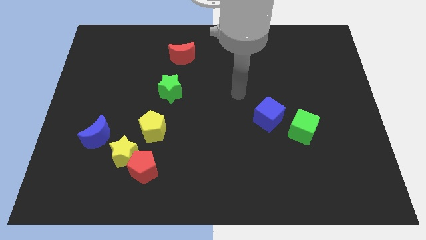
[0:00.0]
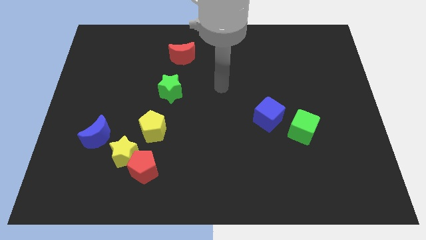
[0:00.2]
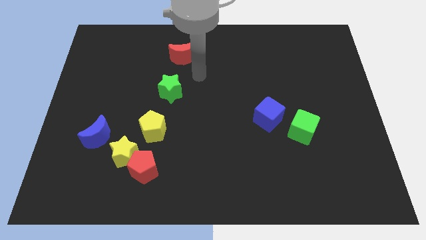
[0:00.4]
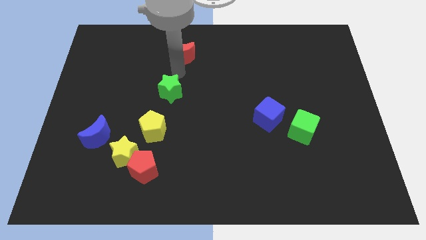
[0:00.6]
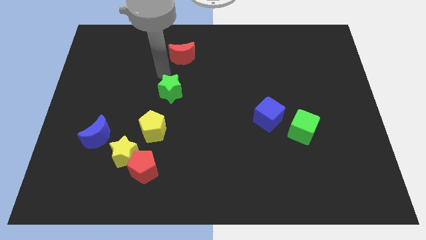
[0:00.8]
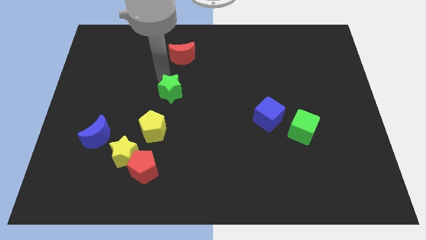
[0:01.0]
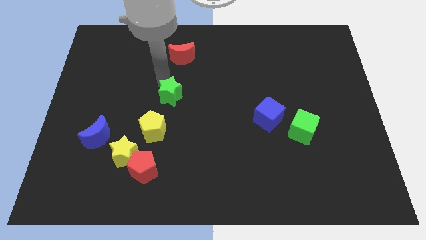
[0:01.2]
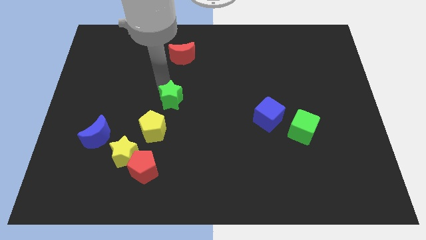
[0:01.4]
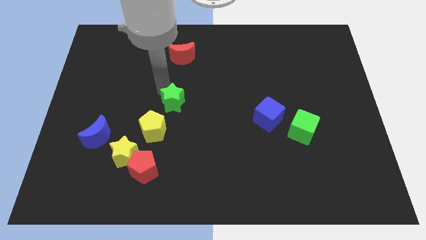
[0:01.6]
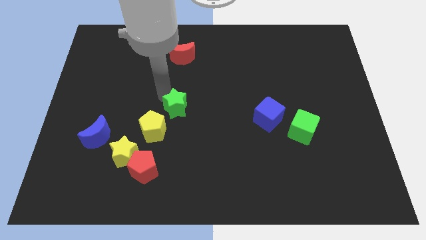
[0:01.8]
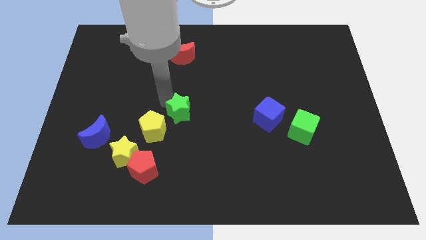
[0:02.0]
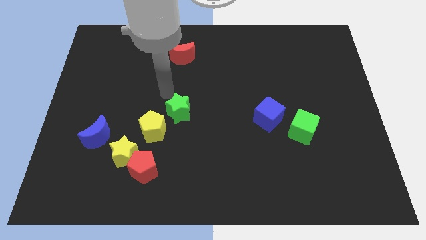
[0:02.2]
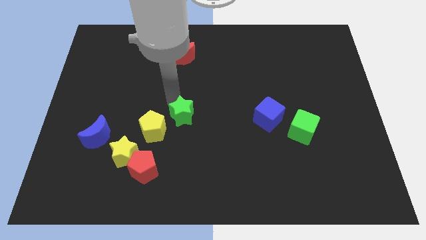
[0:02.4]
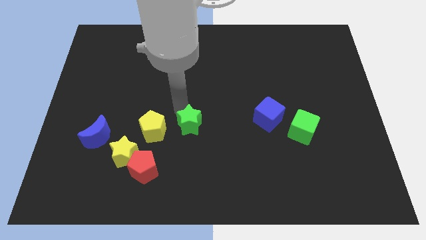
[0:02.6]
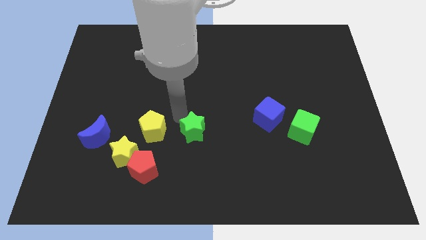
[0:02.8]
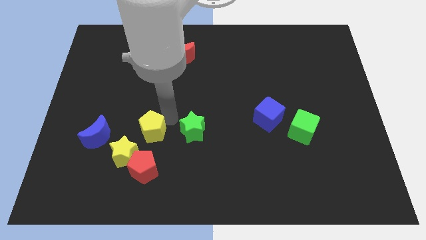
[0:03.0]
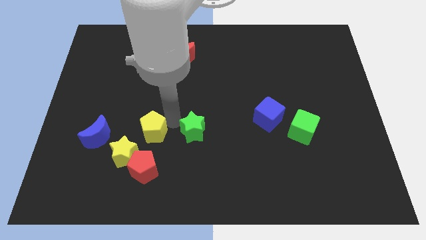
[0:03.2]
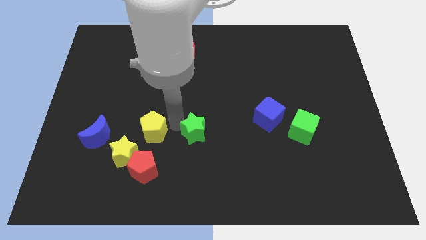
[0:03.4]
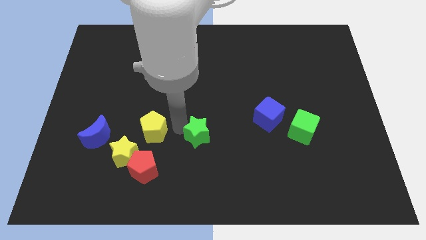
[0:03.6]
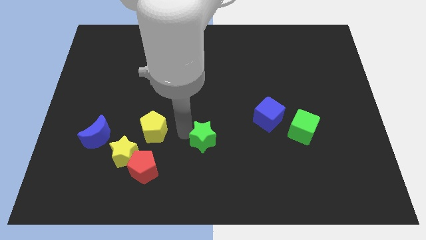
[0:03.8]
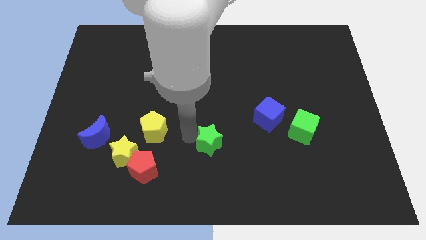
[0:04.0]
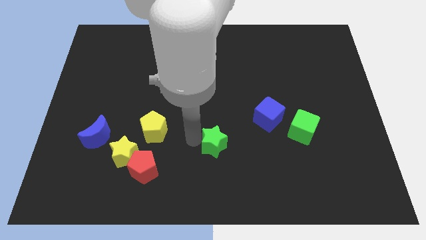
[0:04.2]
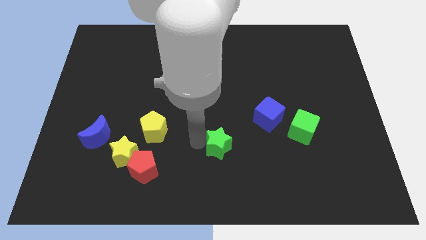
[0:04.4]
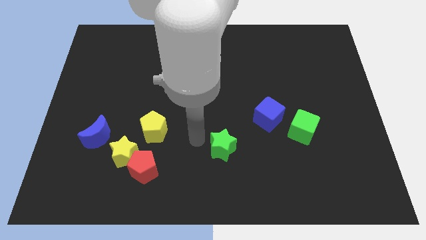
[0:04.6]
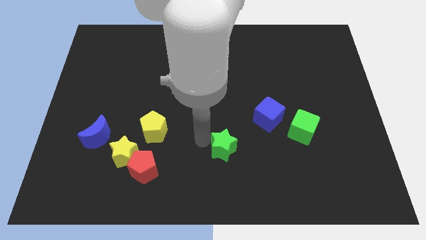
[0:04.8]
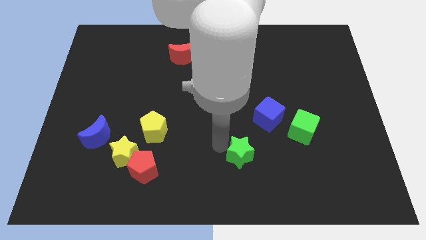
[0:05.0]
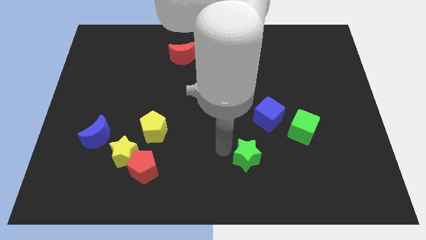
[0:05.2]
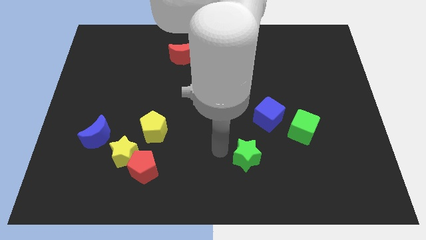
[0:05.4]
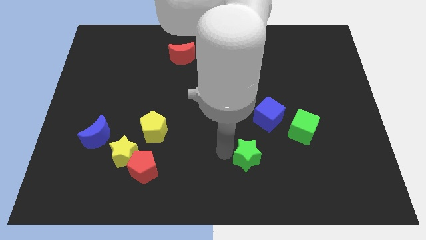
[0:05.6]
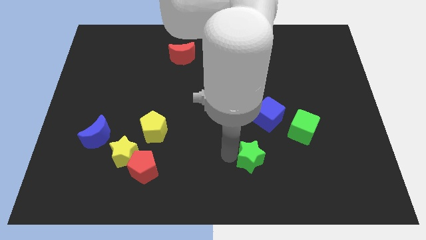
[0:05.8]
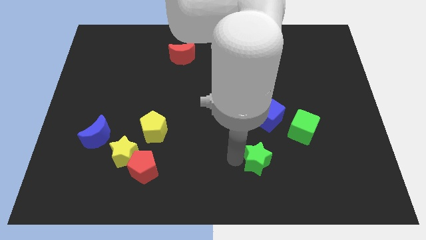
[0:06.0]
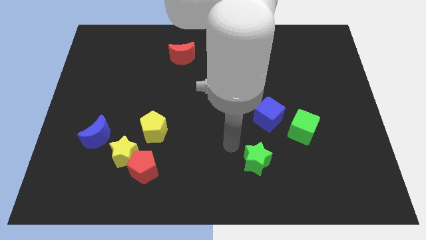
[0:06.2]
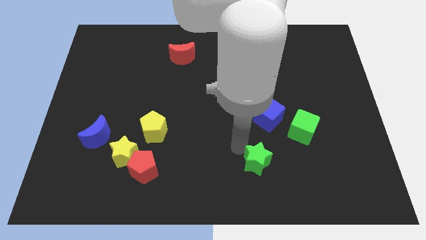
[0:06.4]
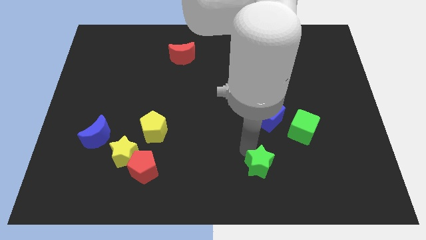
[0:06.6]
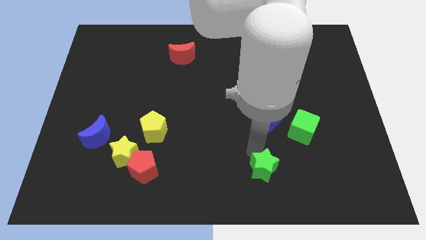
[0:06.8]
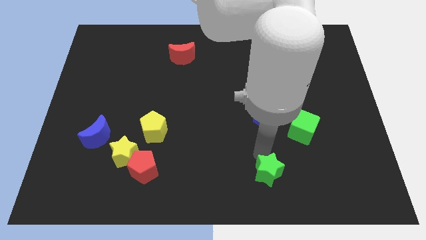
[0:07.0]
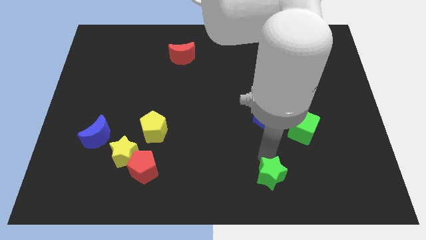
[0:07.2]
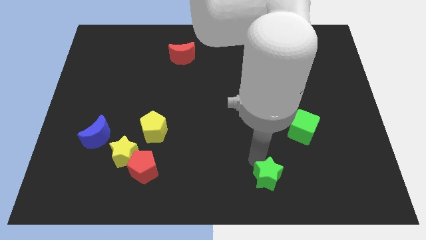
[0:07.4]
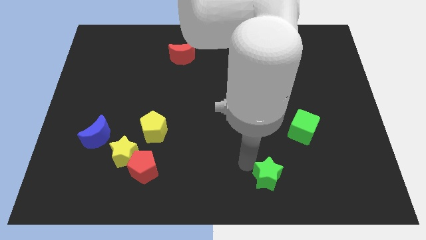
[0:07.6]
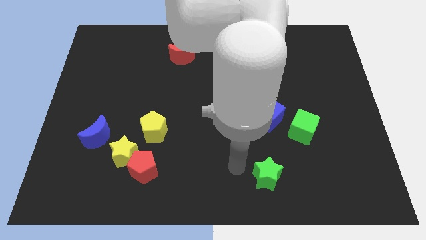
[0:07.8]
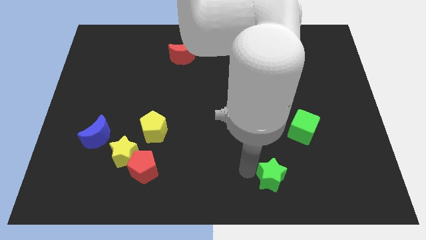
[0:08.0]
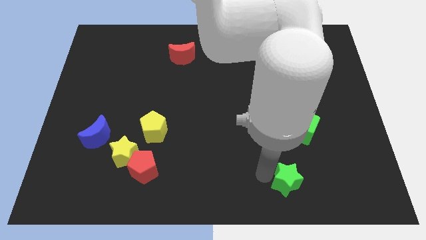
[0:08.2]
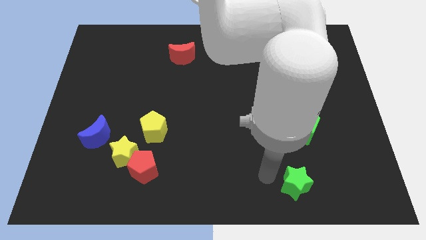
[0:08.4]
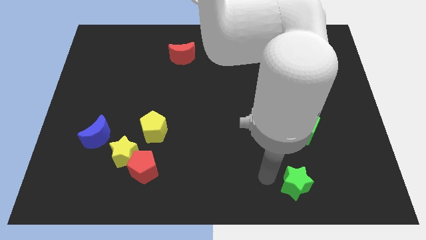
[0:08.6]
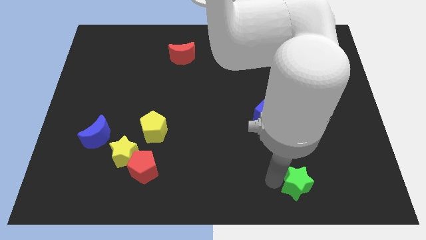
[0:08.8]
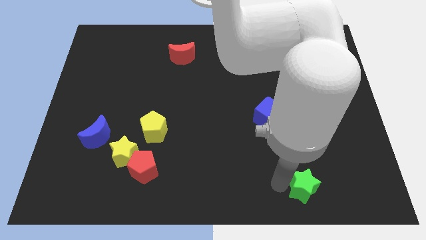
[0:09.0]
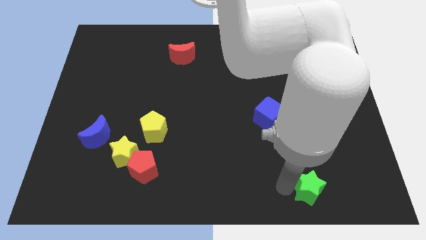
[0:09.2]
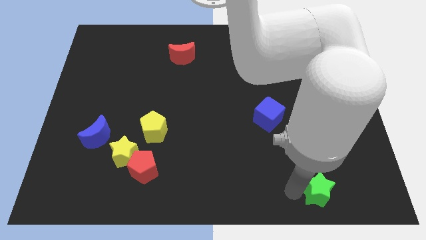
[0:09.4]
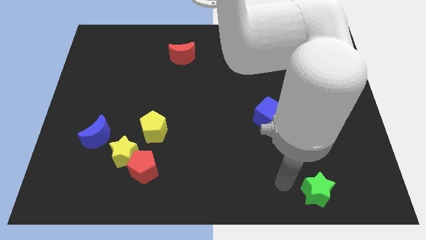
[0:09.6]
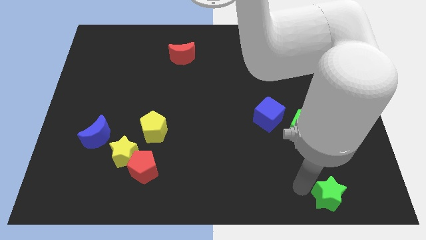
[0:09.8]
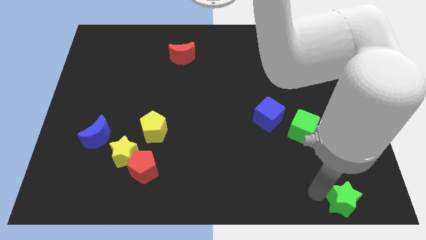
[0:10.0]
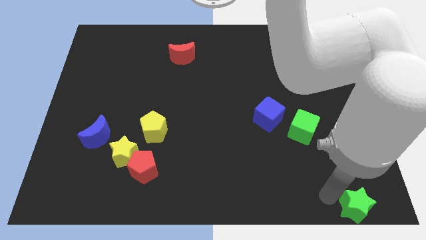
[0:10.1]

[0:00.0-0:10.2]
put the green star to the lower right corner

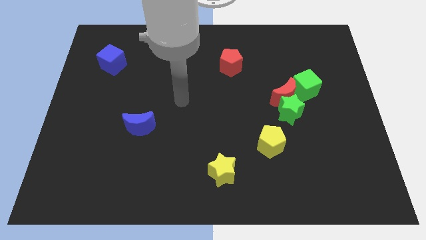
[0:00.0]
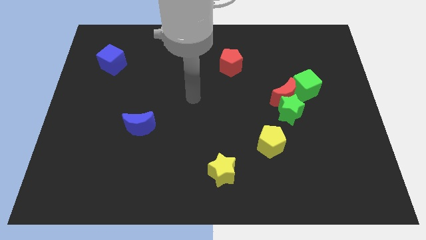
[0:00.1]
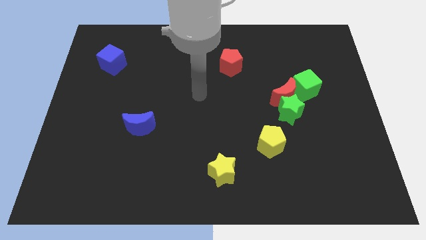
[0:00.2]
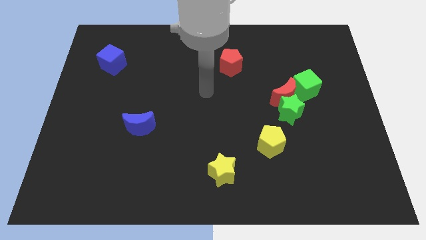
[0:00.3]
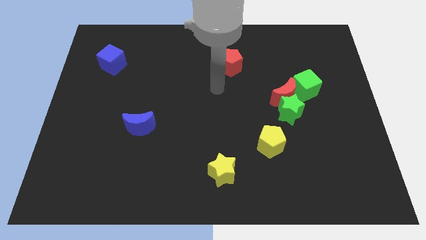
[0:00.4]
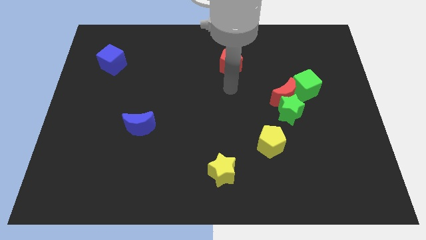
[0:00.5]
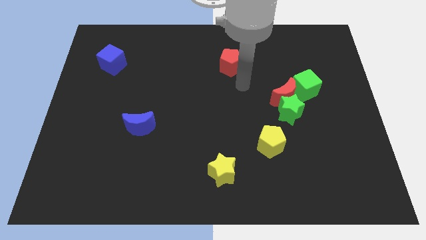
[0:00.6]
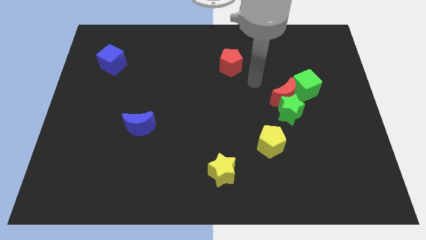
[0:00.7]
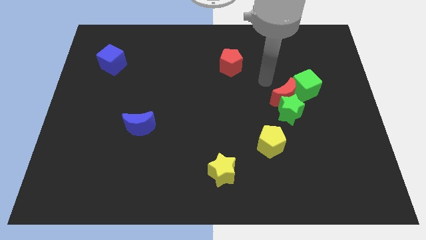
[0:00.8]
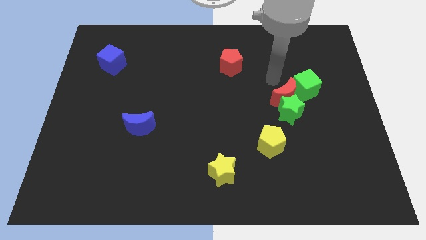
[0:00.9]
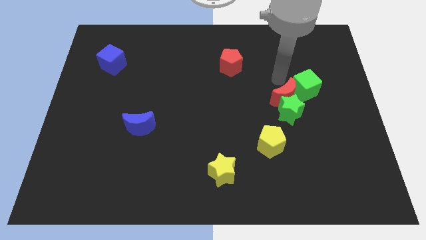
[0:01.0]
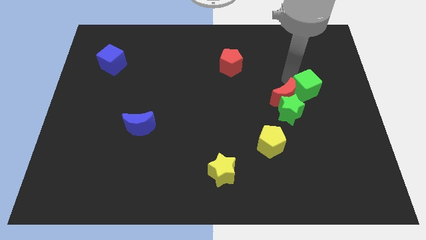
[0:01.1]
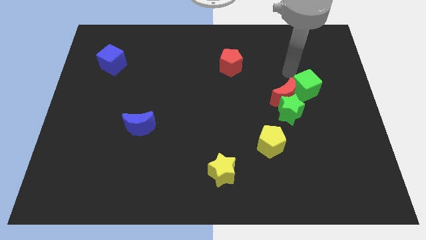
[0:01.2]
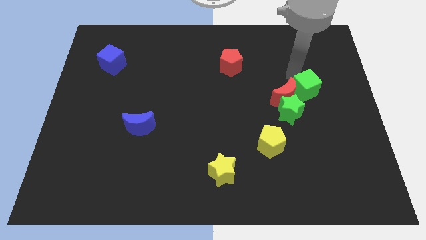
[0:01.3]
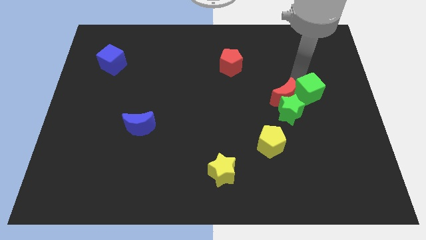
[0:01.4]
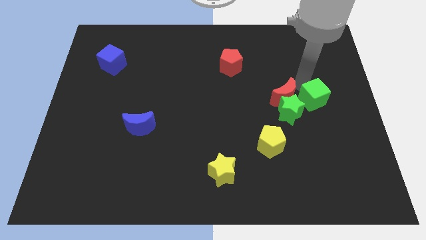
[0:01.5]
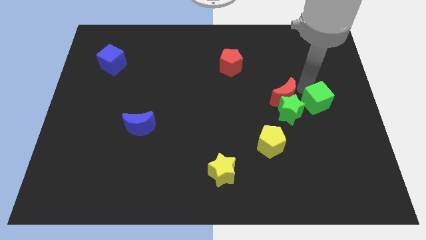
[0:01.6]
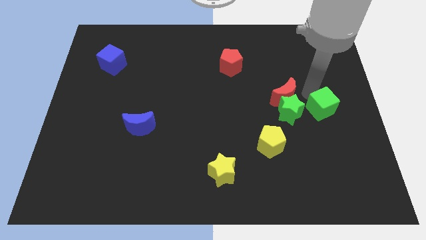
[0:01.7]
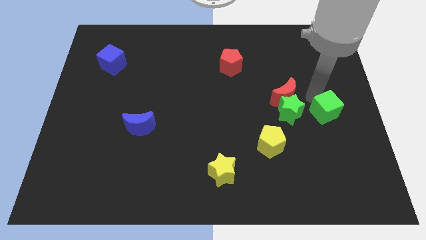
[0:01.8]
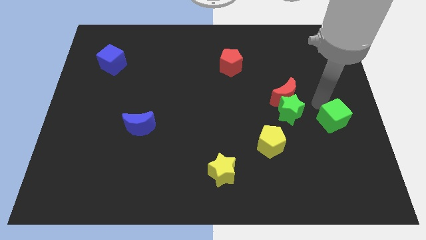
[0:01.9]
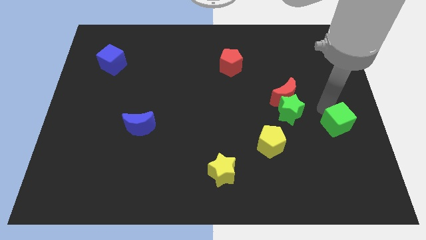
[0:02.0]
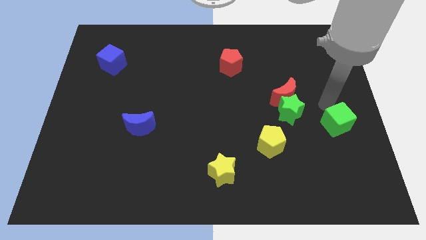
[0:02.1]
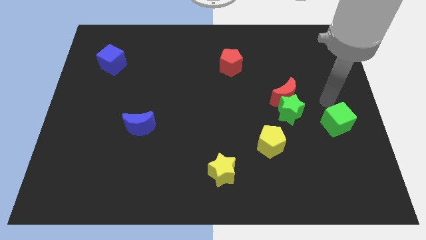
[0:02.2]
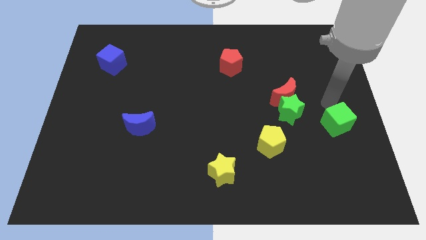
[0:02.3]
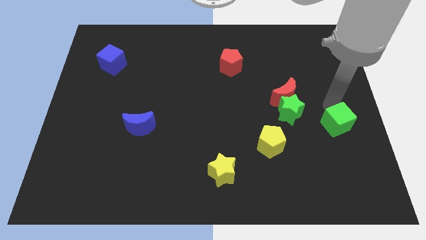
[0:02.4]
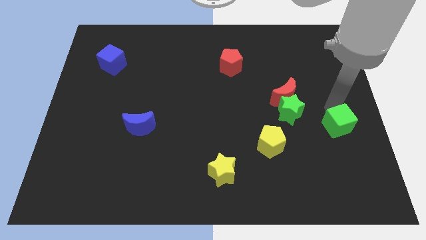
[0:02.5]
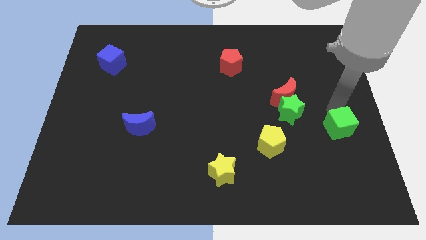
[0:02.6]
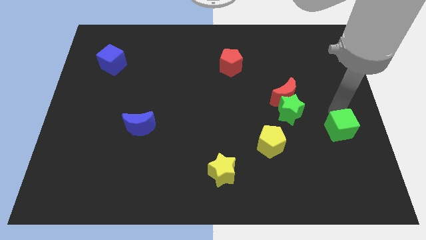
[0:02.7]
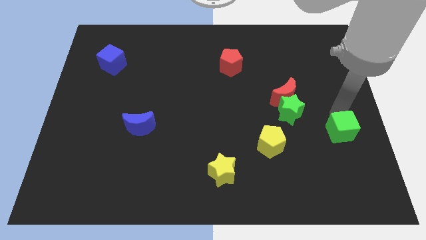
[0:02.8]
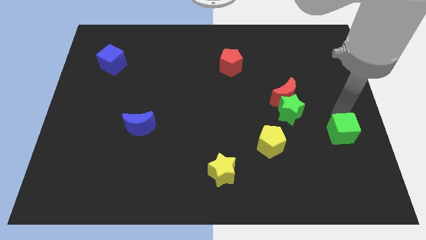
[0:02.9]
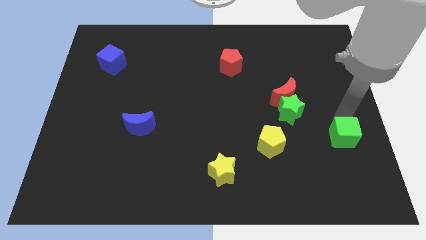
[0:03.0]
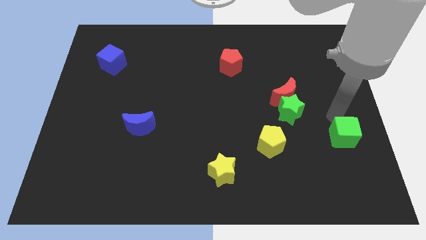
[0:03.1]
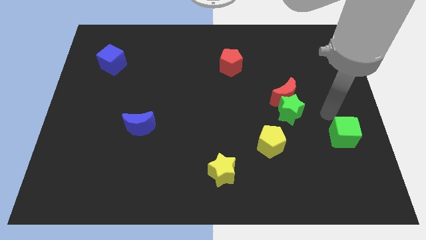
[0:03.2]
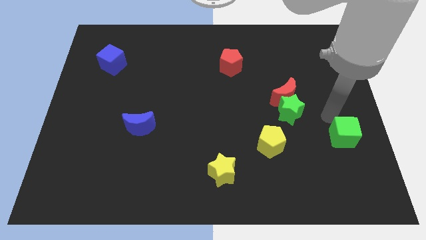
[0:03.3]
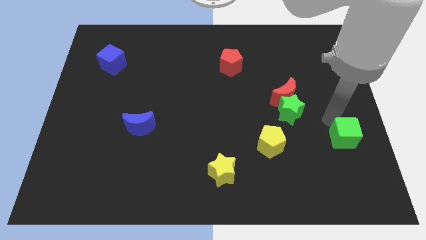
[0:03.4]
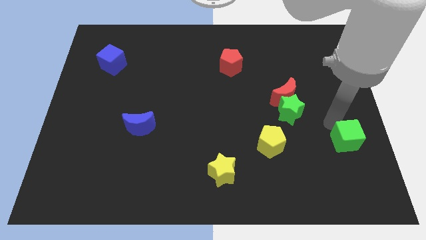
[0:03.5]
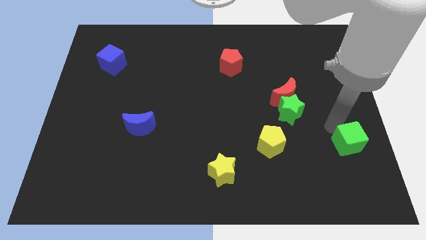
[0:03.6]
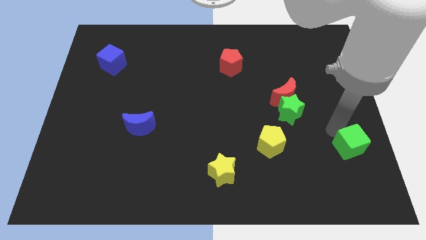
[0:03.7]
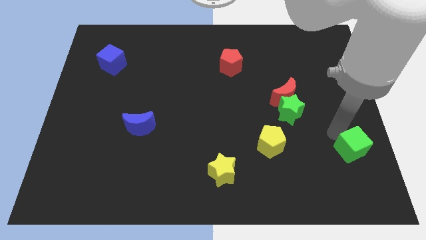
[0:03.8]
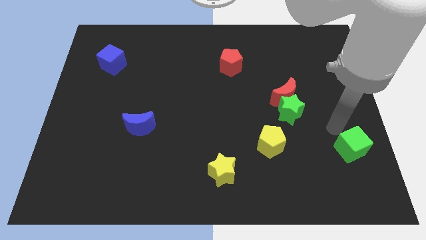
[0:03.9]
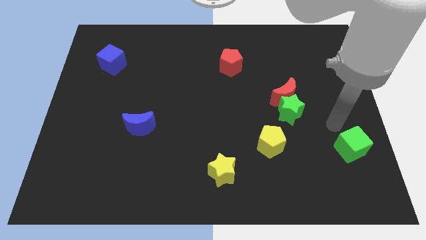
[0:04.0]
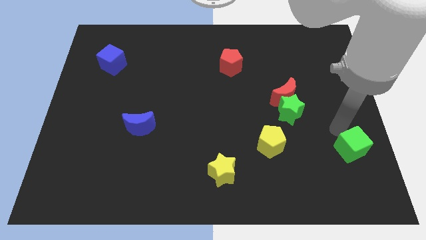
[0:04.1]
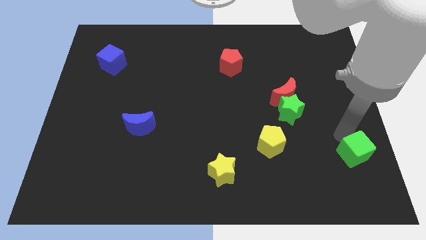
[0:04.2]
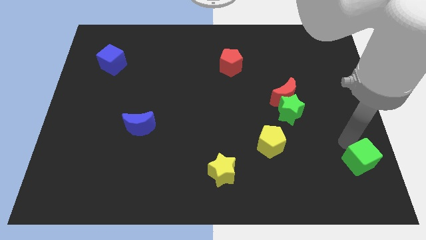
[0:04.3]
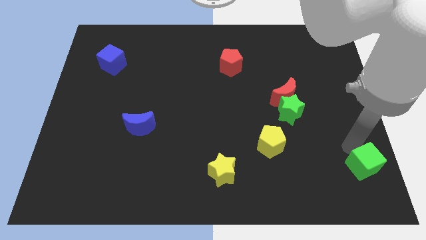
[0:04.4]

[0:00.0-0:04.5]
slide the green cube to the bottom right of the board
